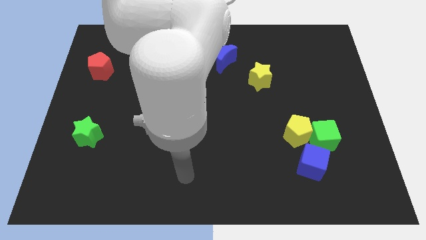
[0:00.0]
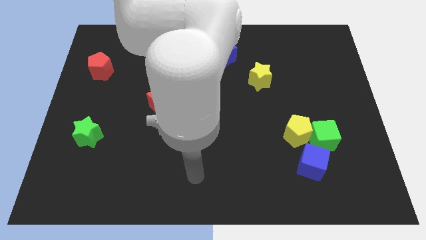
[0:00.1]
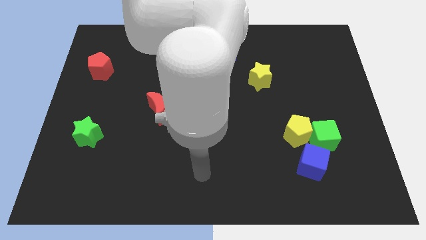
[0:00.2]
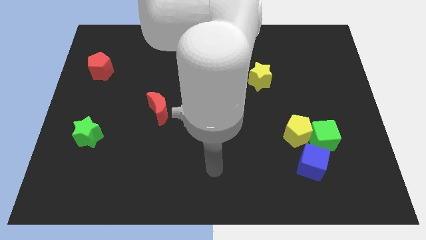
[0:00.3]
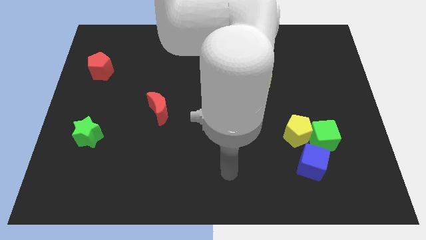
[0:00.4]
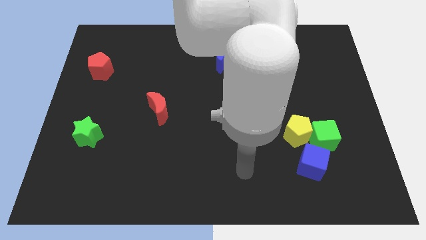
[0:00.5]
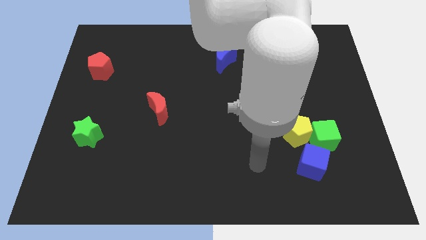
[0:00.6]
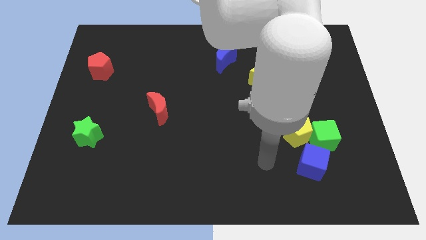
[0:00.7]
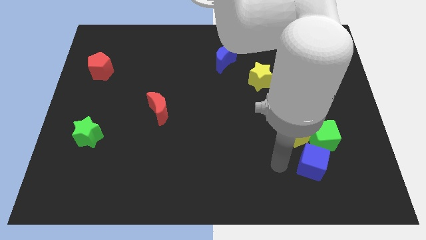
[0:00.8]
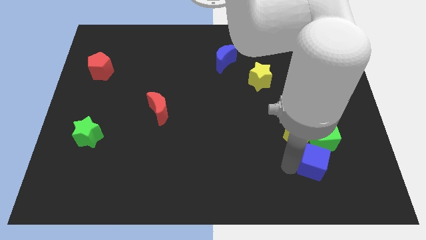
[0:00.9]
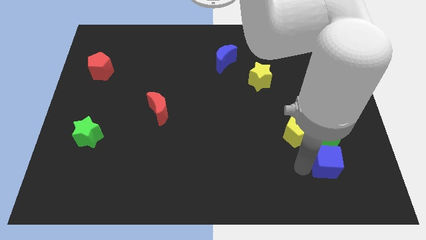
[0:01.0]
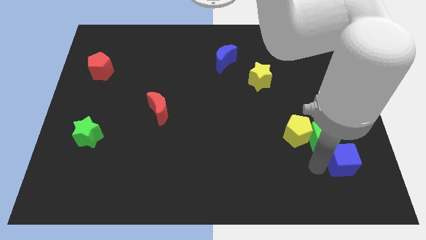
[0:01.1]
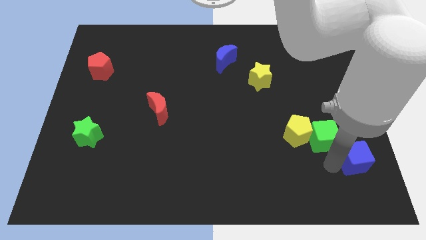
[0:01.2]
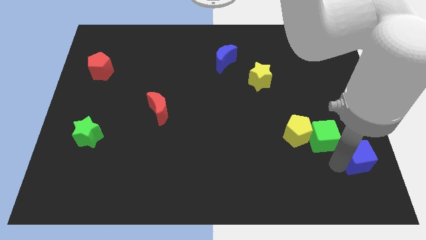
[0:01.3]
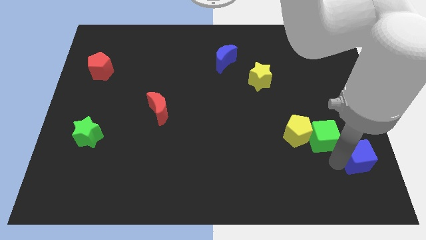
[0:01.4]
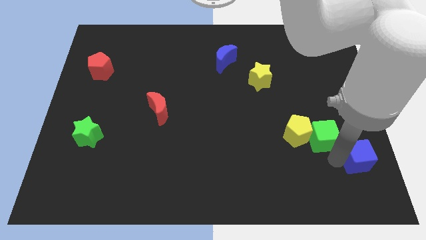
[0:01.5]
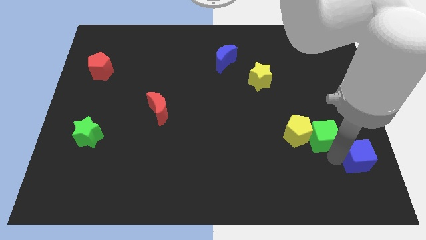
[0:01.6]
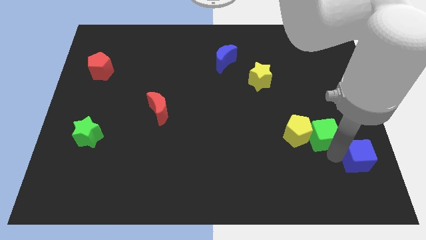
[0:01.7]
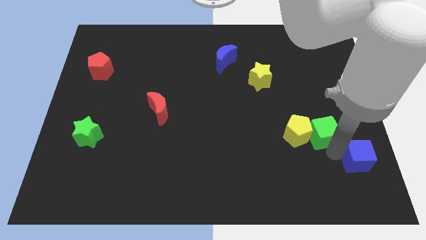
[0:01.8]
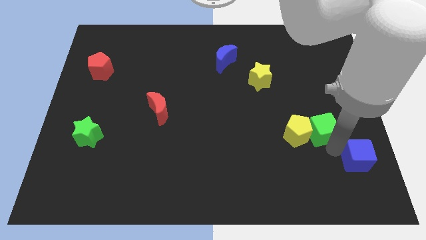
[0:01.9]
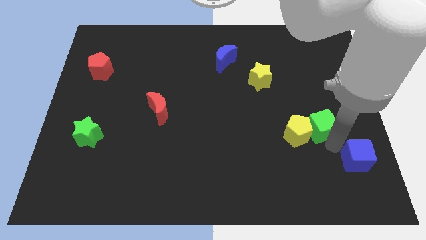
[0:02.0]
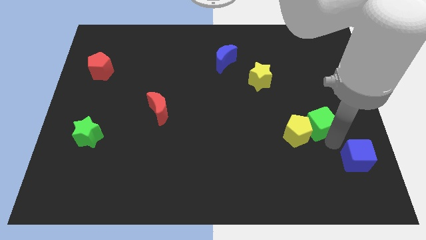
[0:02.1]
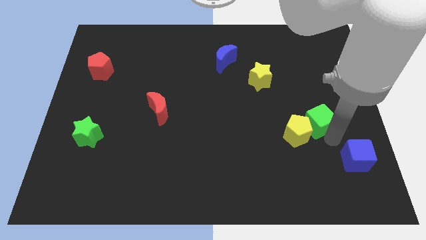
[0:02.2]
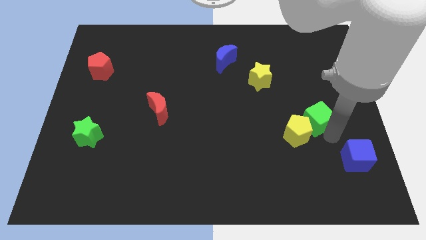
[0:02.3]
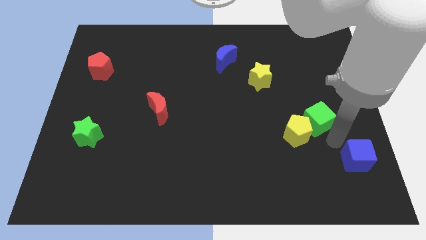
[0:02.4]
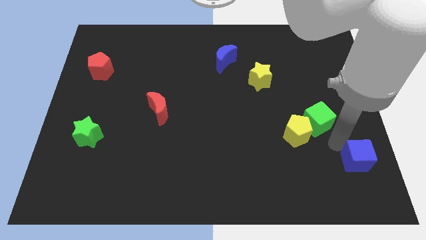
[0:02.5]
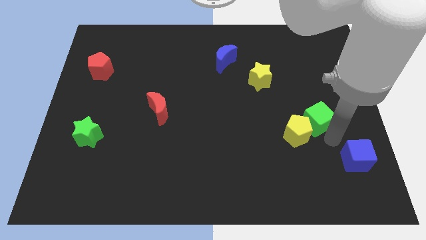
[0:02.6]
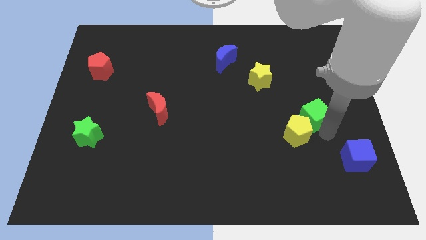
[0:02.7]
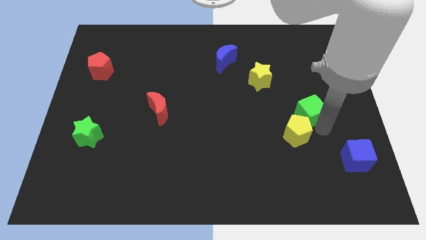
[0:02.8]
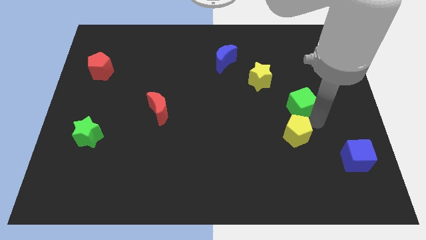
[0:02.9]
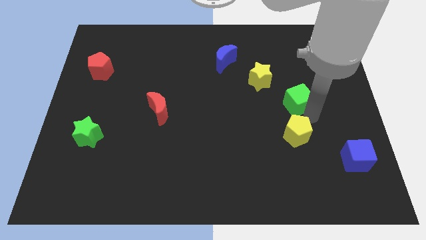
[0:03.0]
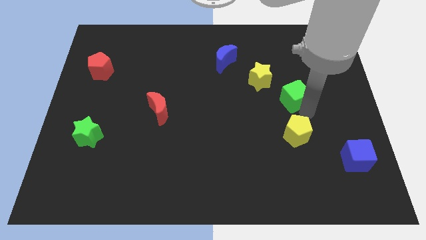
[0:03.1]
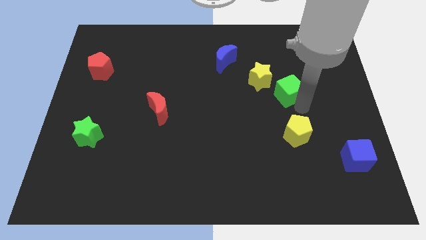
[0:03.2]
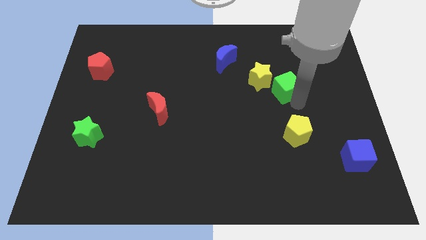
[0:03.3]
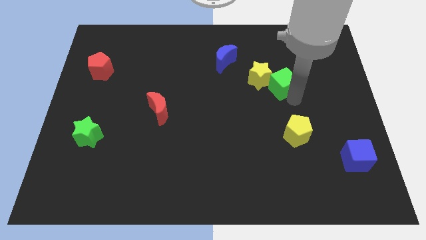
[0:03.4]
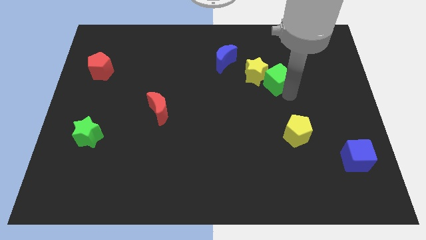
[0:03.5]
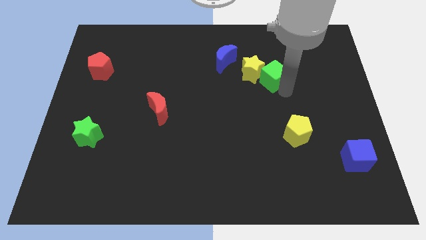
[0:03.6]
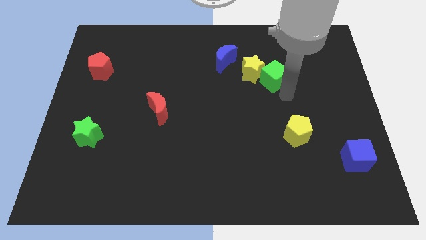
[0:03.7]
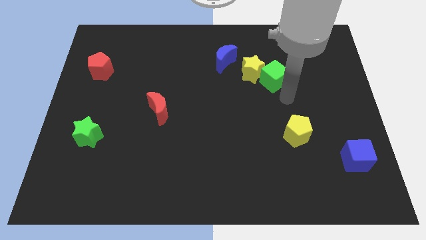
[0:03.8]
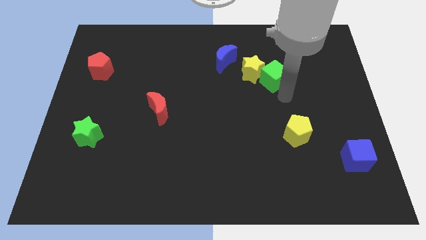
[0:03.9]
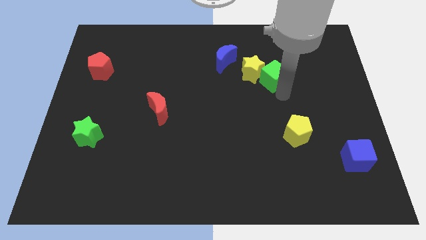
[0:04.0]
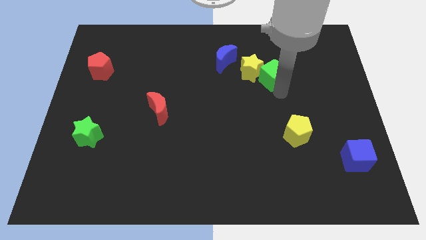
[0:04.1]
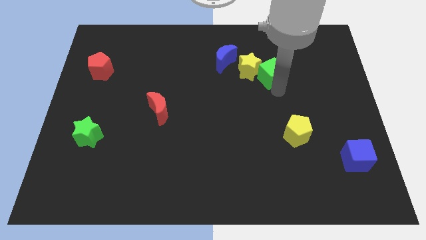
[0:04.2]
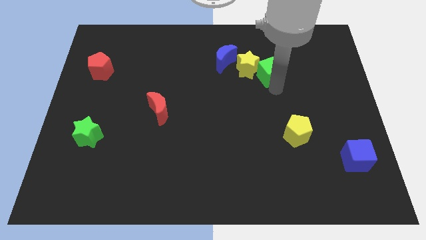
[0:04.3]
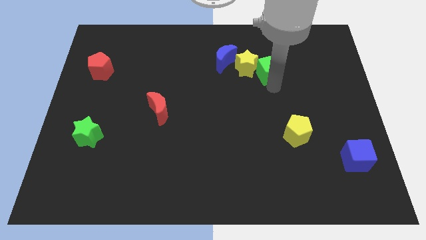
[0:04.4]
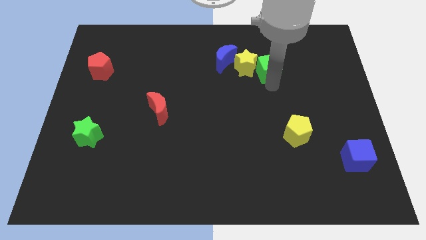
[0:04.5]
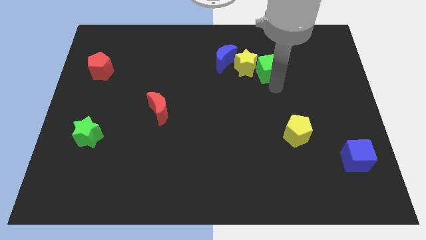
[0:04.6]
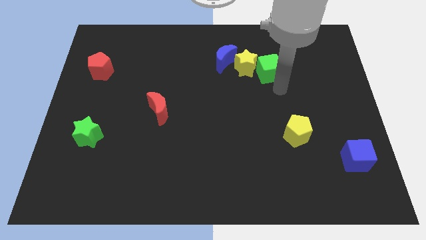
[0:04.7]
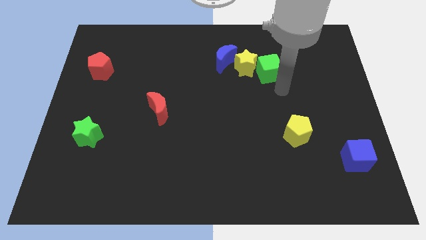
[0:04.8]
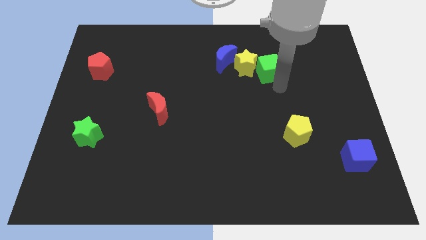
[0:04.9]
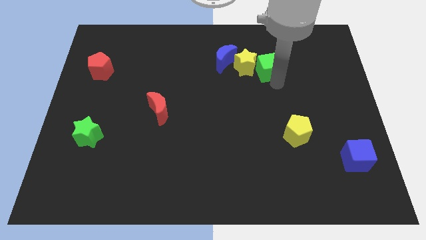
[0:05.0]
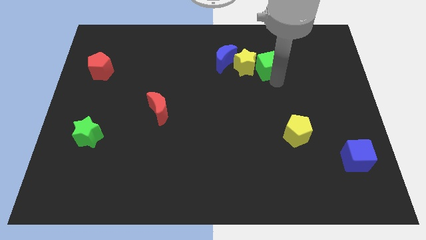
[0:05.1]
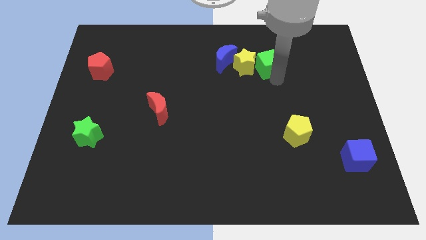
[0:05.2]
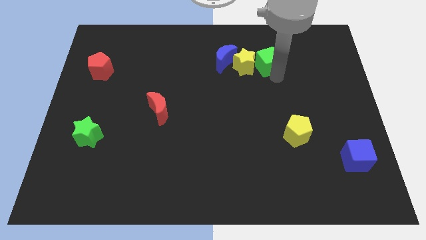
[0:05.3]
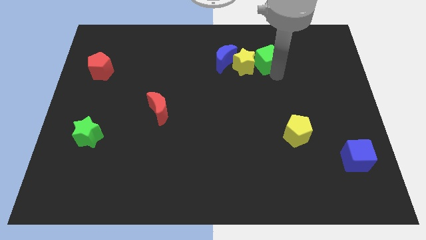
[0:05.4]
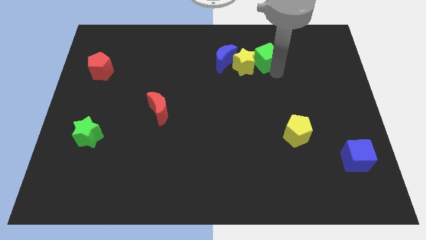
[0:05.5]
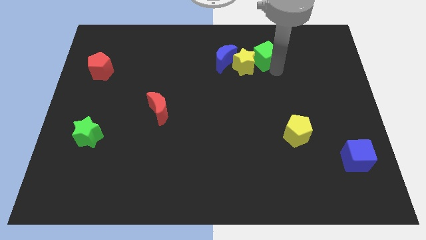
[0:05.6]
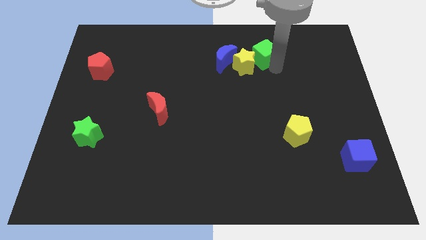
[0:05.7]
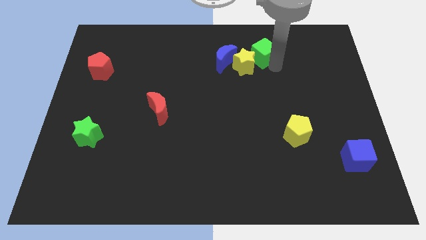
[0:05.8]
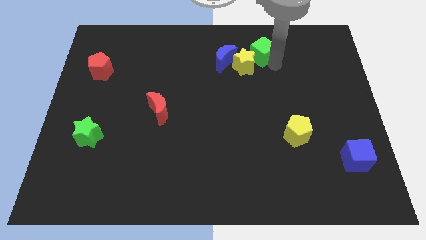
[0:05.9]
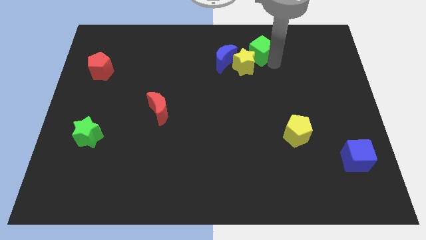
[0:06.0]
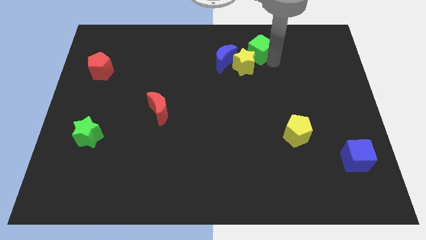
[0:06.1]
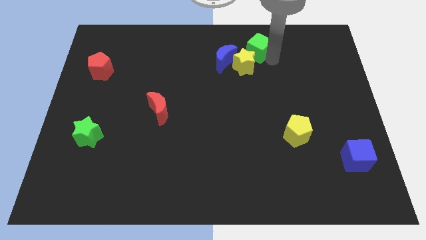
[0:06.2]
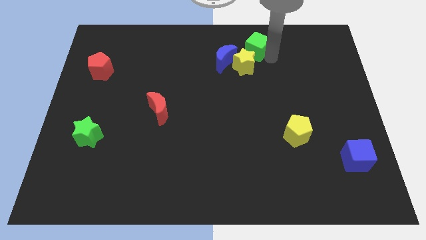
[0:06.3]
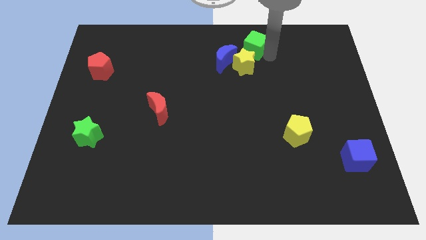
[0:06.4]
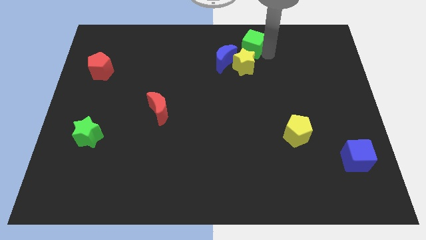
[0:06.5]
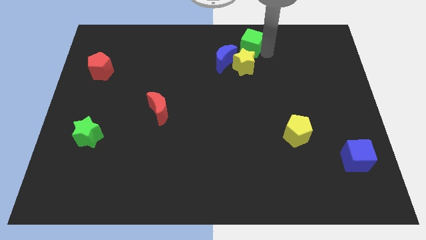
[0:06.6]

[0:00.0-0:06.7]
put the green cube to the top
